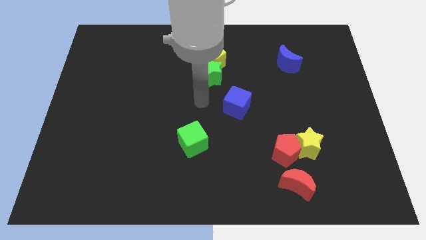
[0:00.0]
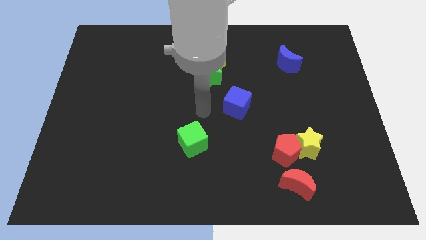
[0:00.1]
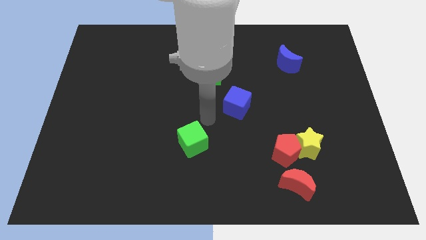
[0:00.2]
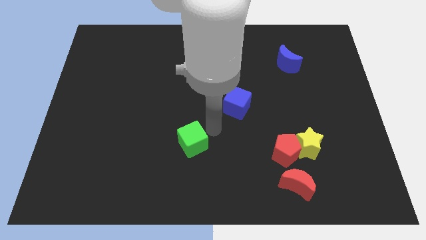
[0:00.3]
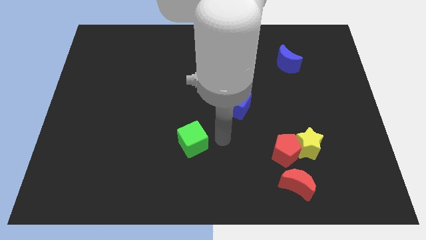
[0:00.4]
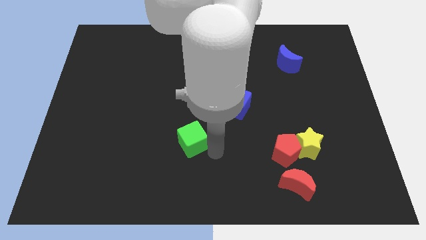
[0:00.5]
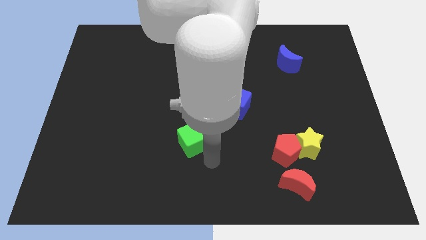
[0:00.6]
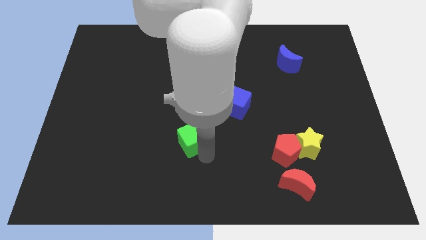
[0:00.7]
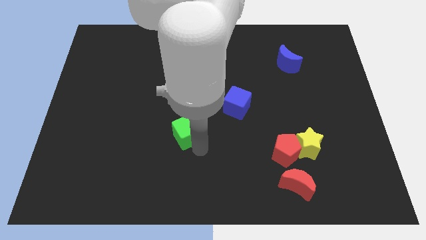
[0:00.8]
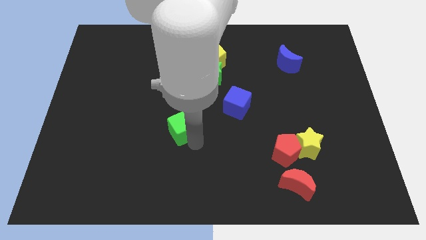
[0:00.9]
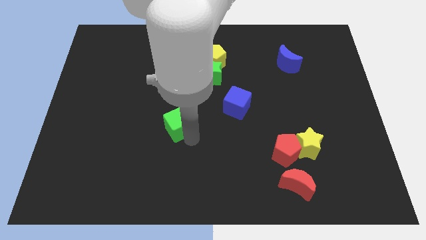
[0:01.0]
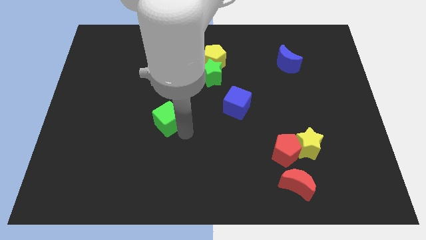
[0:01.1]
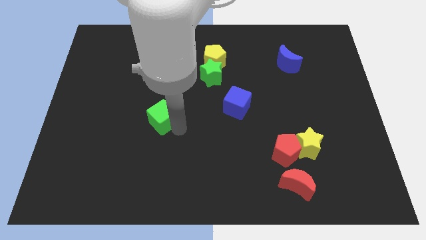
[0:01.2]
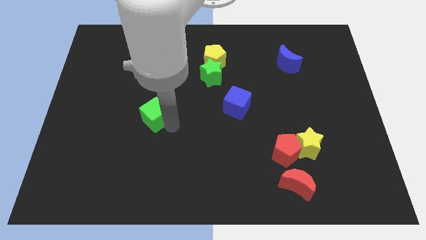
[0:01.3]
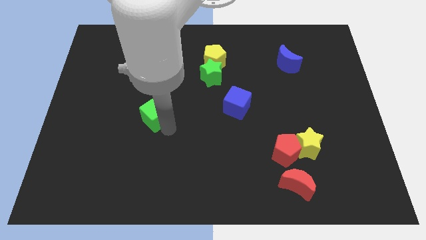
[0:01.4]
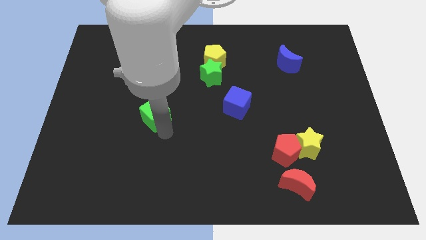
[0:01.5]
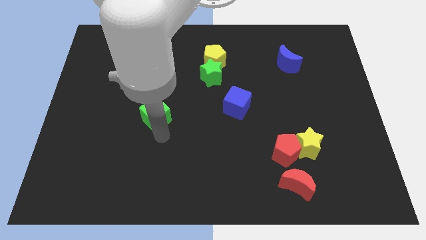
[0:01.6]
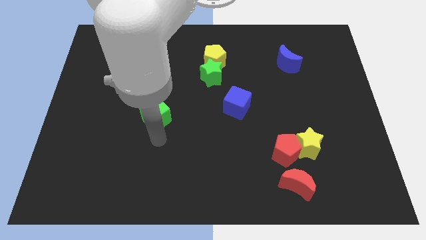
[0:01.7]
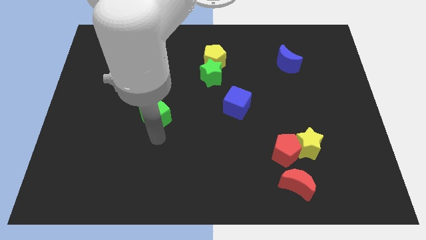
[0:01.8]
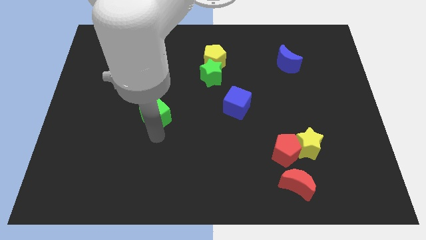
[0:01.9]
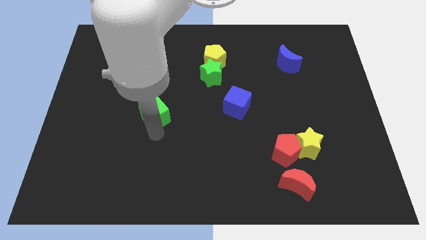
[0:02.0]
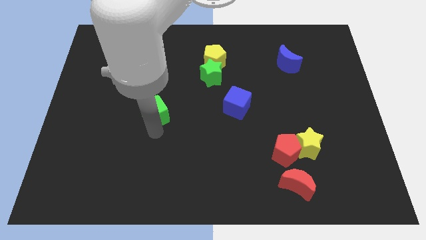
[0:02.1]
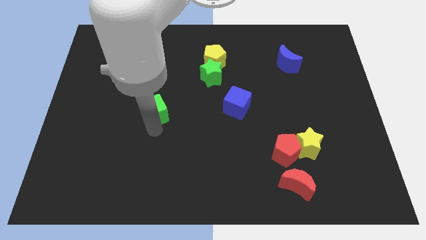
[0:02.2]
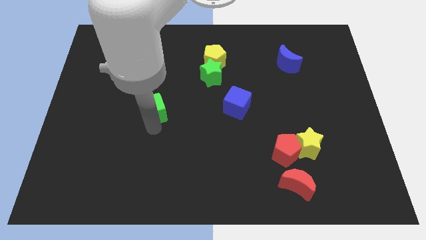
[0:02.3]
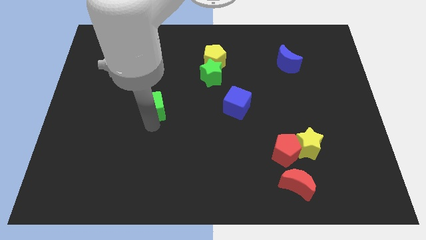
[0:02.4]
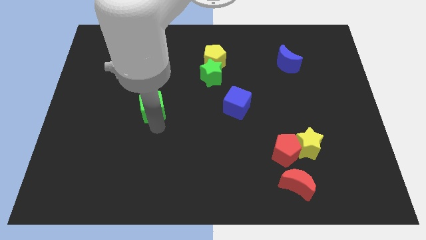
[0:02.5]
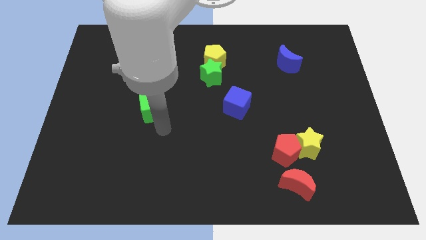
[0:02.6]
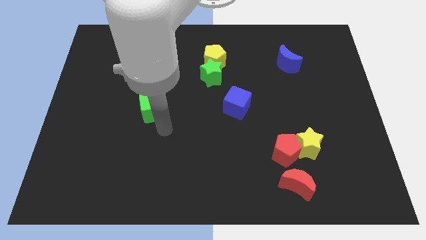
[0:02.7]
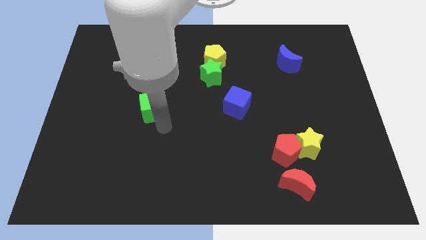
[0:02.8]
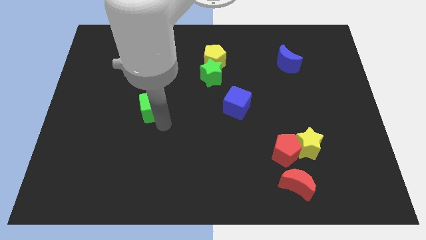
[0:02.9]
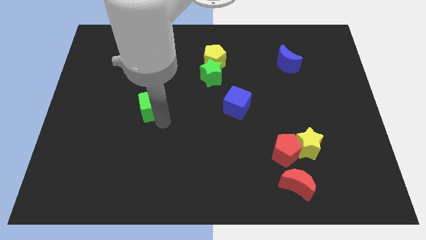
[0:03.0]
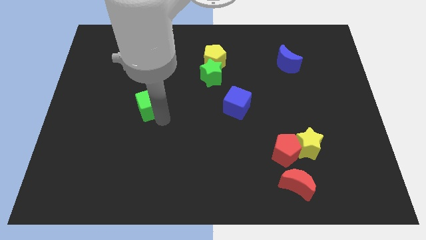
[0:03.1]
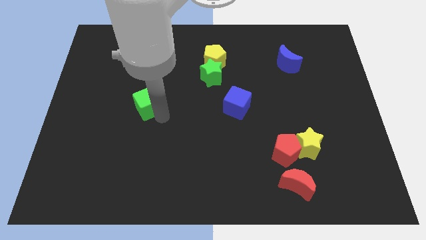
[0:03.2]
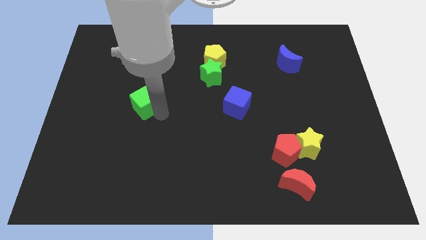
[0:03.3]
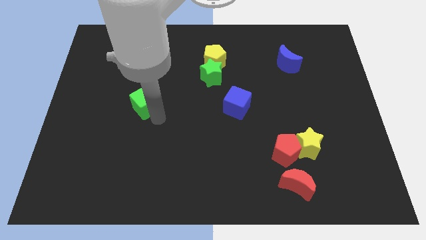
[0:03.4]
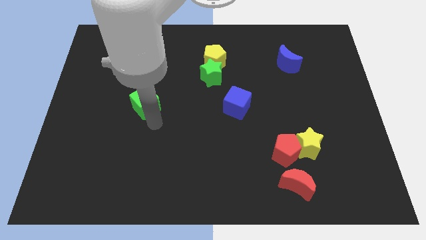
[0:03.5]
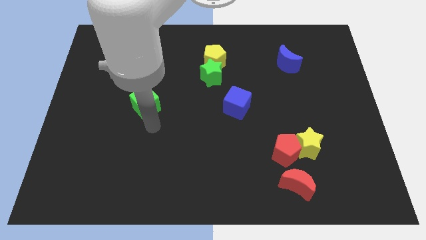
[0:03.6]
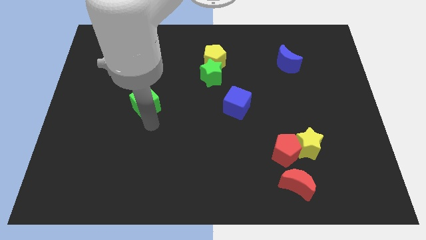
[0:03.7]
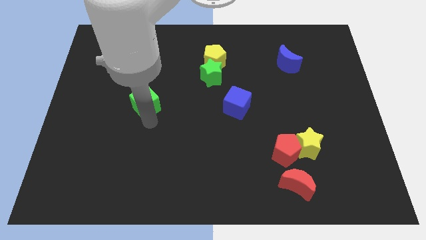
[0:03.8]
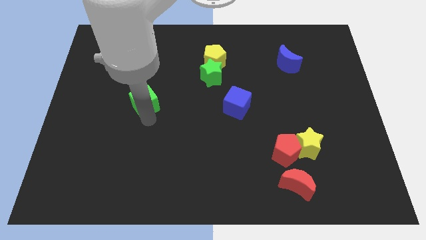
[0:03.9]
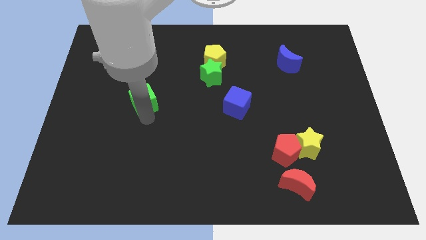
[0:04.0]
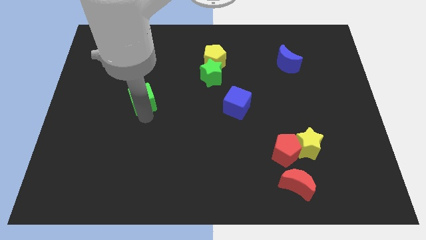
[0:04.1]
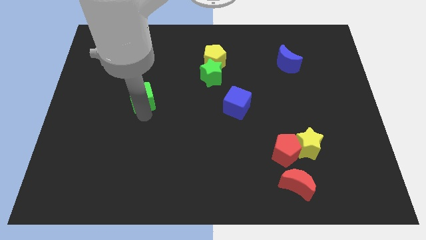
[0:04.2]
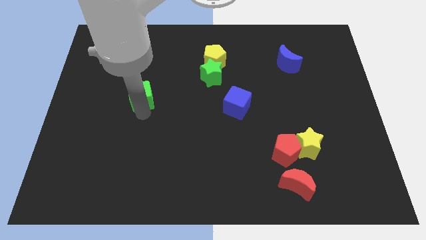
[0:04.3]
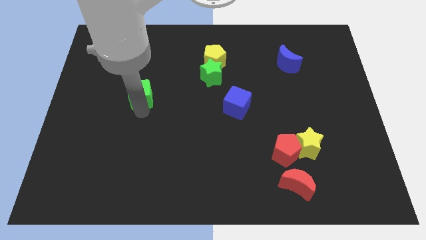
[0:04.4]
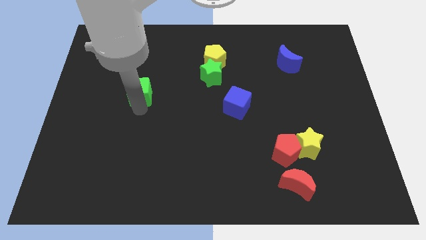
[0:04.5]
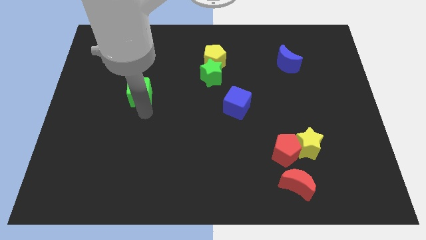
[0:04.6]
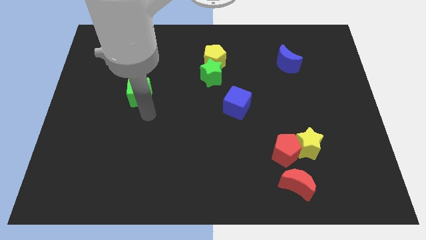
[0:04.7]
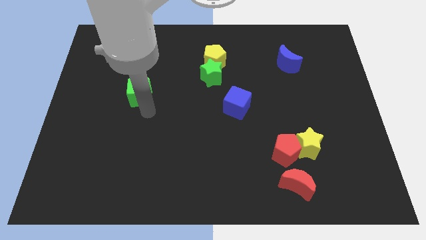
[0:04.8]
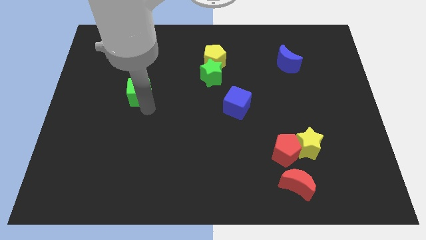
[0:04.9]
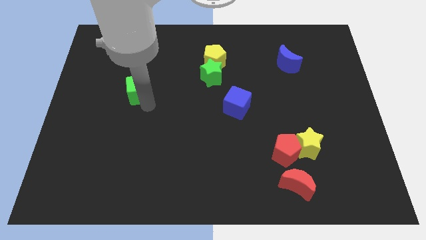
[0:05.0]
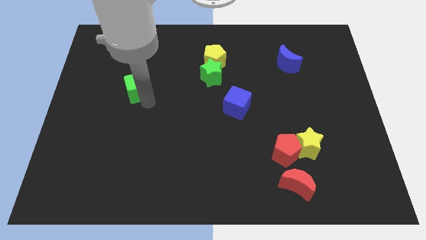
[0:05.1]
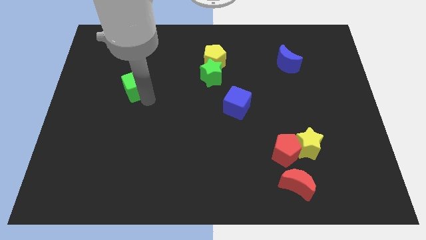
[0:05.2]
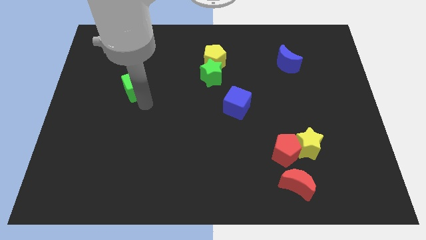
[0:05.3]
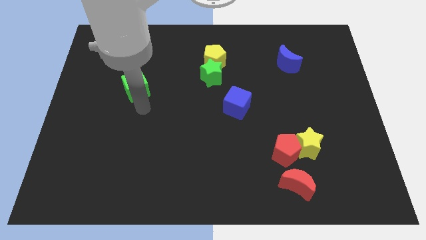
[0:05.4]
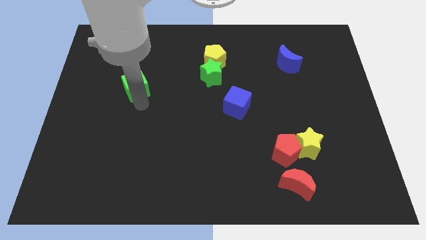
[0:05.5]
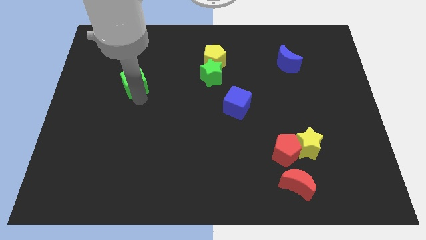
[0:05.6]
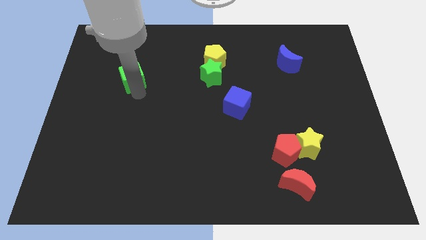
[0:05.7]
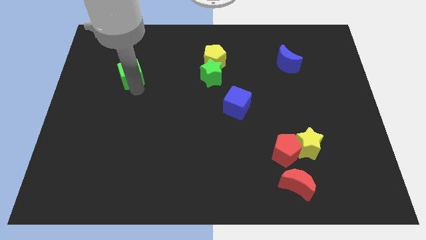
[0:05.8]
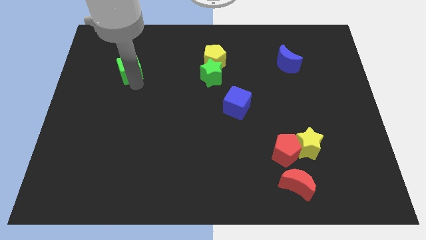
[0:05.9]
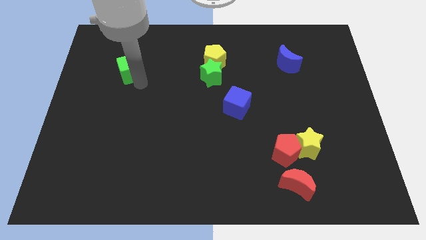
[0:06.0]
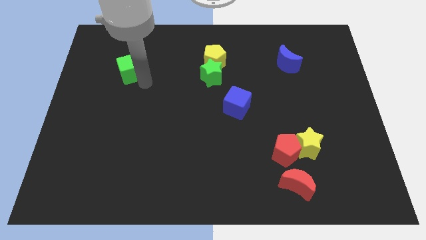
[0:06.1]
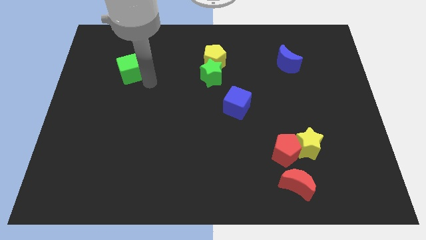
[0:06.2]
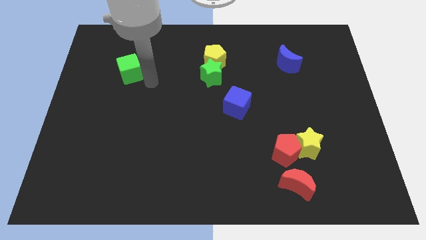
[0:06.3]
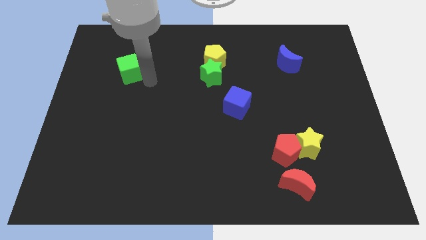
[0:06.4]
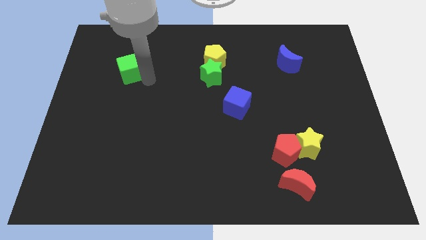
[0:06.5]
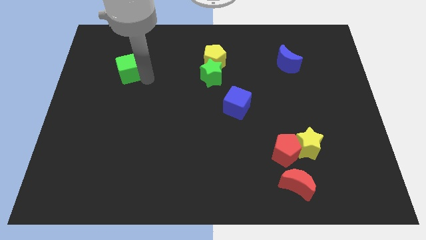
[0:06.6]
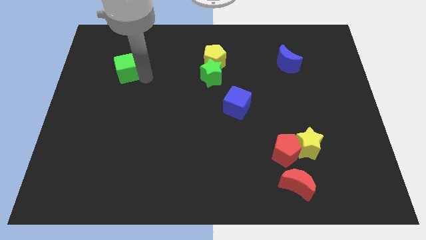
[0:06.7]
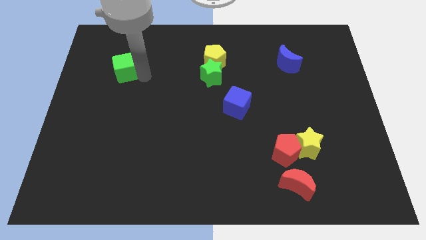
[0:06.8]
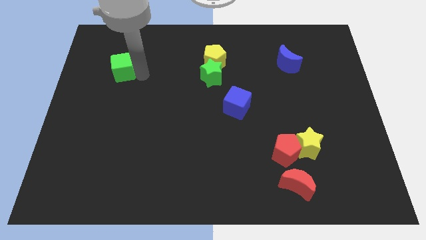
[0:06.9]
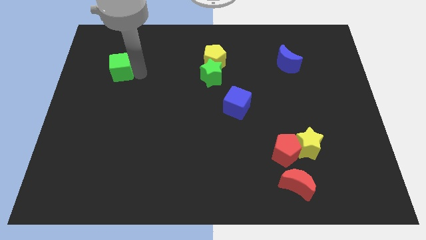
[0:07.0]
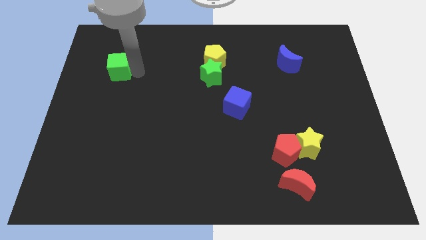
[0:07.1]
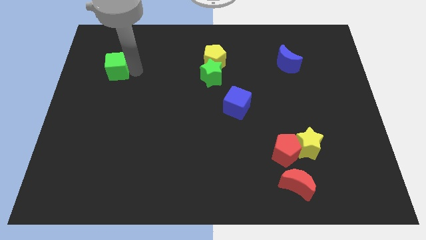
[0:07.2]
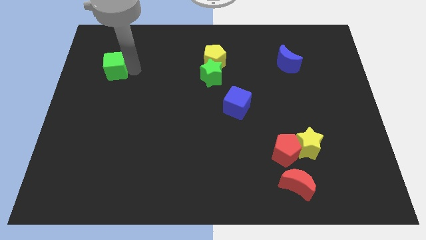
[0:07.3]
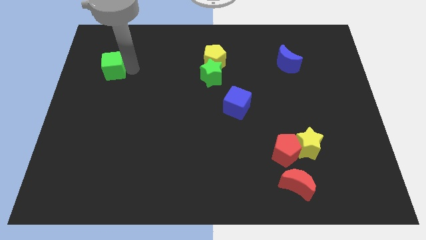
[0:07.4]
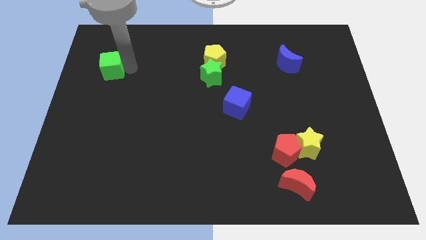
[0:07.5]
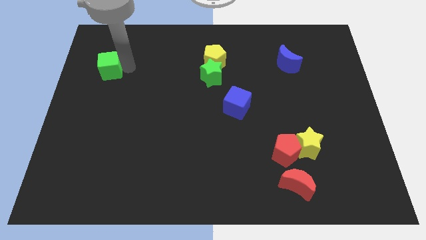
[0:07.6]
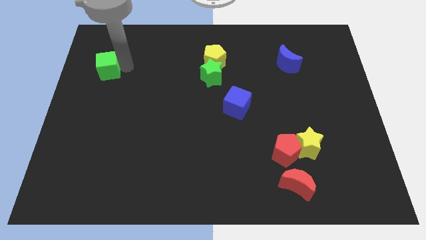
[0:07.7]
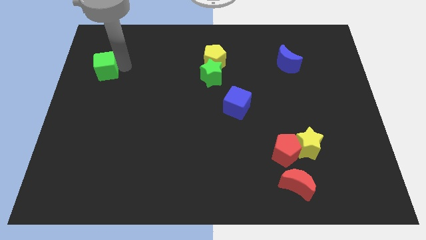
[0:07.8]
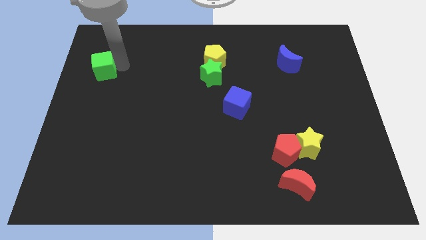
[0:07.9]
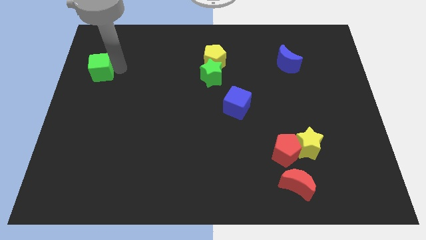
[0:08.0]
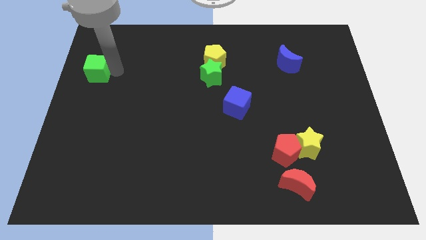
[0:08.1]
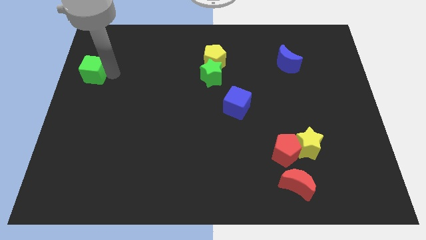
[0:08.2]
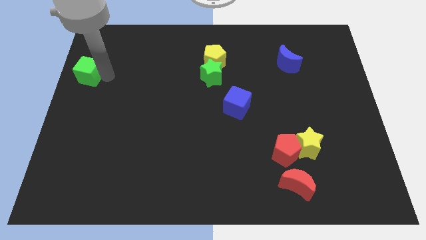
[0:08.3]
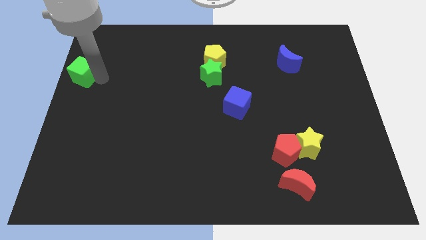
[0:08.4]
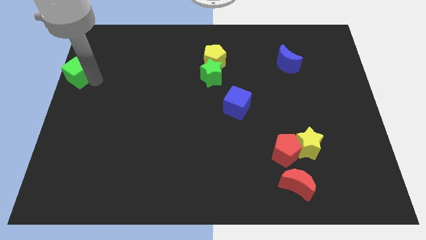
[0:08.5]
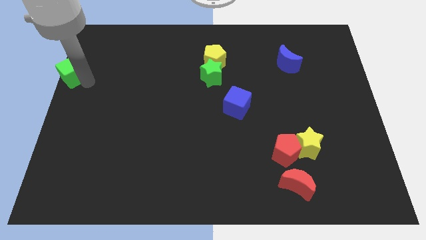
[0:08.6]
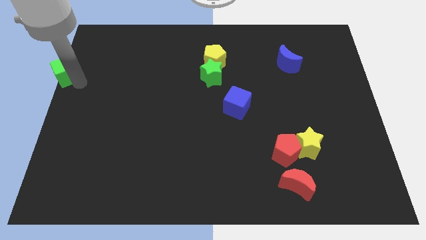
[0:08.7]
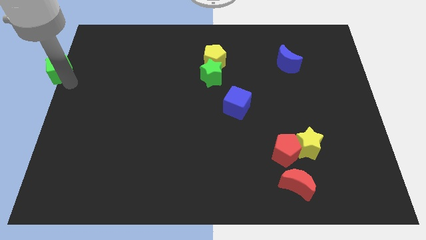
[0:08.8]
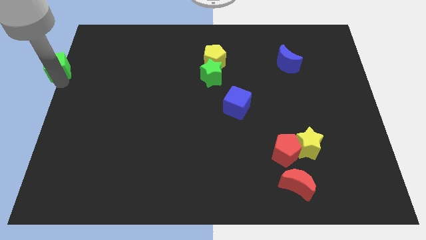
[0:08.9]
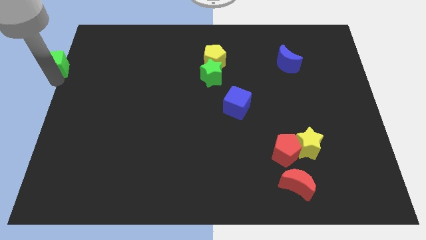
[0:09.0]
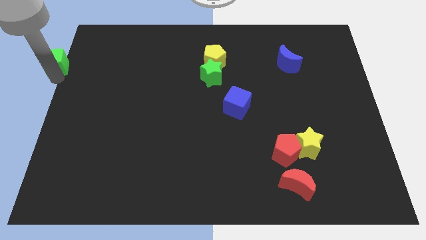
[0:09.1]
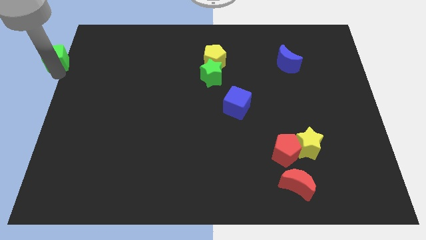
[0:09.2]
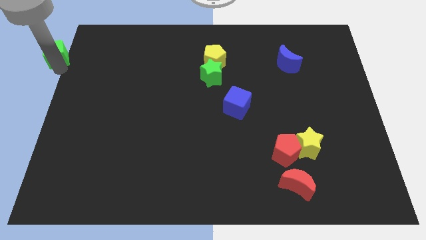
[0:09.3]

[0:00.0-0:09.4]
push the green cube to the top left of the board
